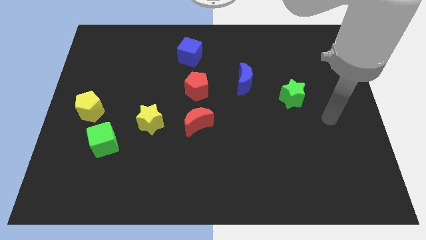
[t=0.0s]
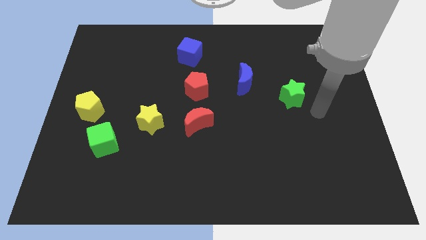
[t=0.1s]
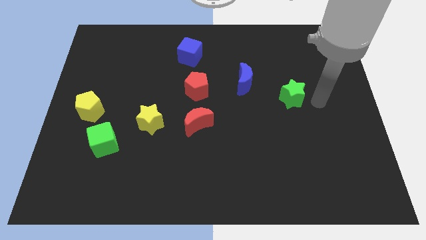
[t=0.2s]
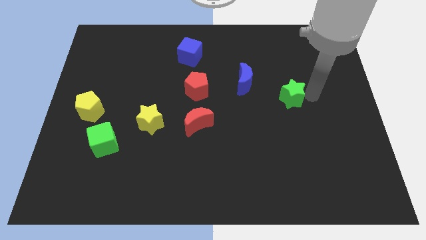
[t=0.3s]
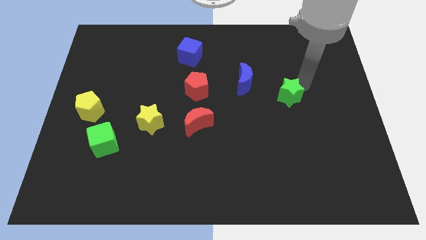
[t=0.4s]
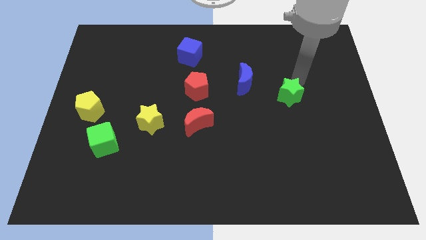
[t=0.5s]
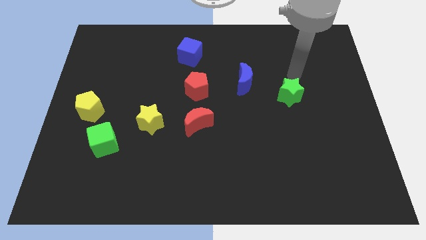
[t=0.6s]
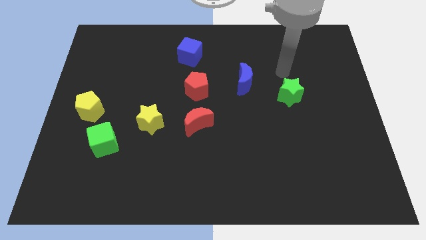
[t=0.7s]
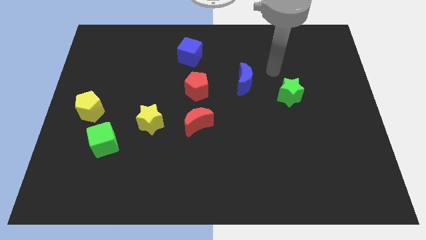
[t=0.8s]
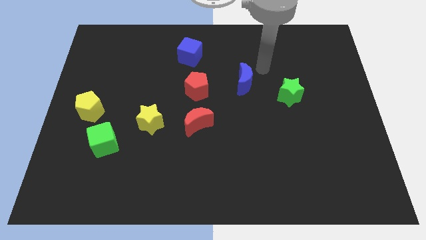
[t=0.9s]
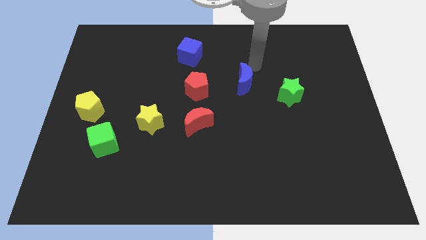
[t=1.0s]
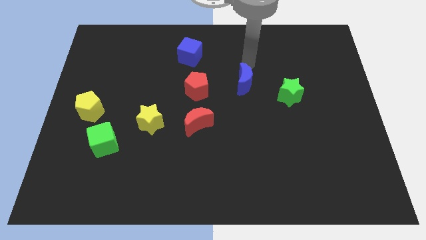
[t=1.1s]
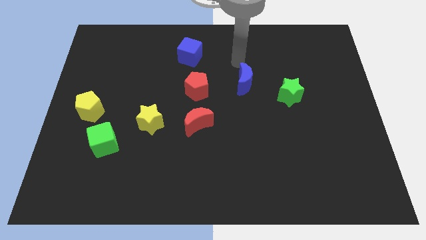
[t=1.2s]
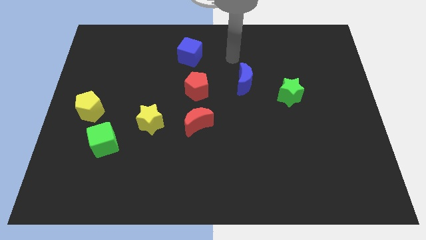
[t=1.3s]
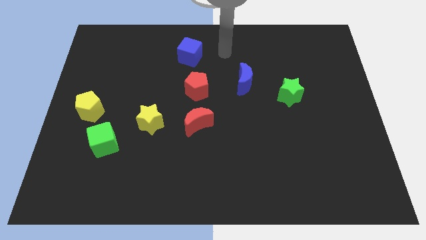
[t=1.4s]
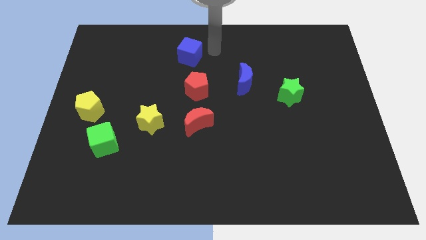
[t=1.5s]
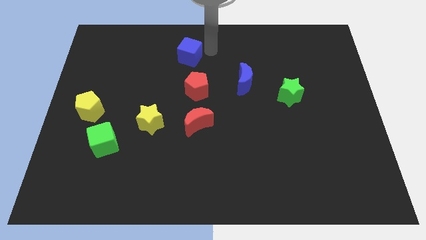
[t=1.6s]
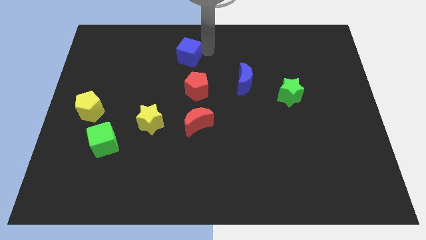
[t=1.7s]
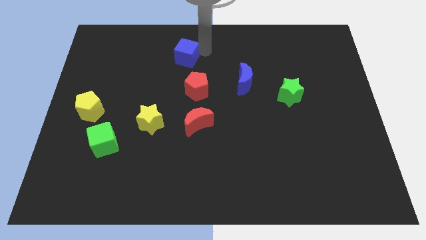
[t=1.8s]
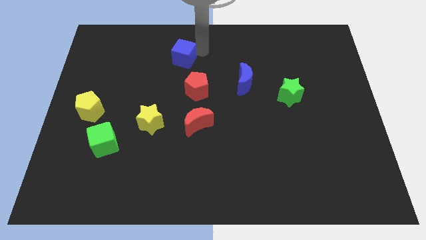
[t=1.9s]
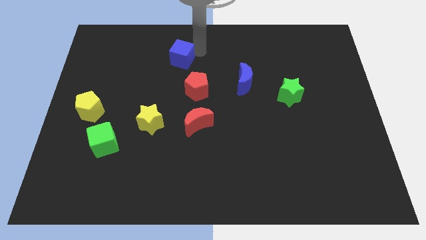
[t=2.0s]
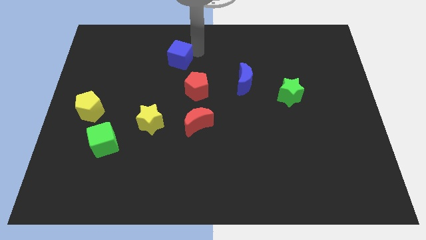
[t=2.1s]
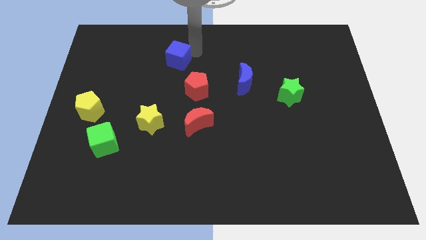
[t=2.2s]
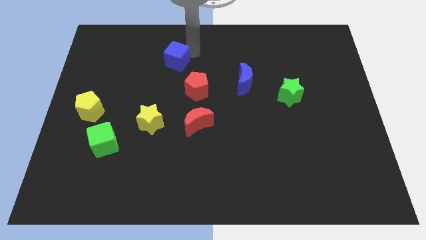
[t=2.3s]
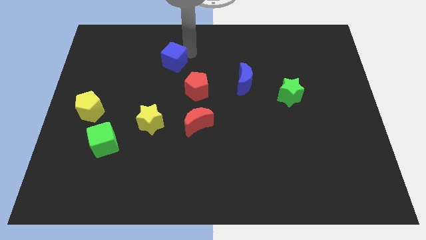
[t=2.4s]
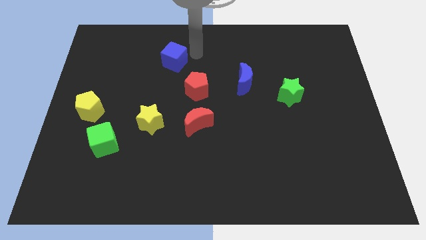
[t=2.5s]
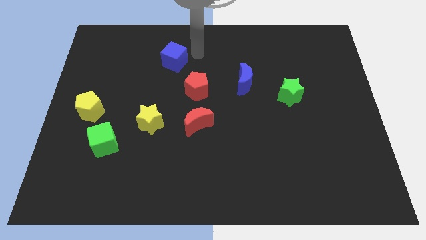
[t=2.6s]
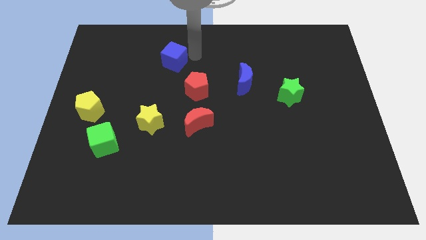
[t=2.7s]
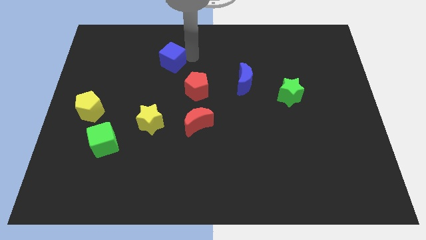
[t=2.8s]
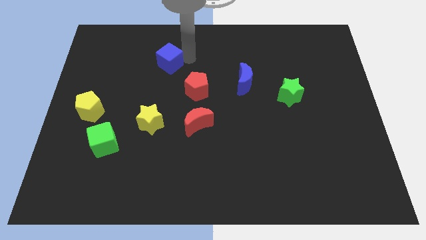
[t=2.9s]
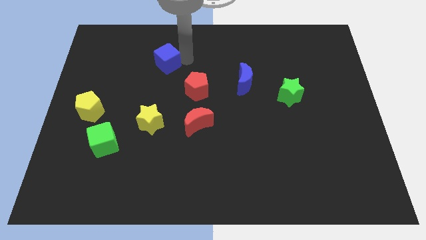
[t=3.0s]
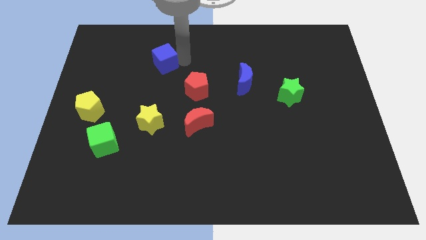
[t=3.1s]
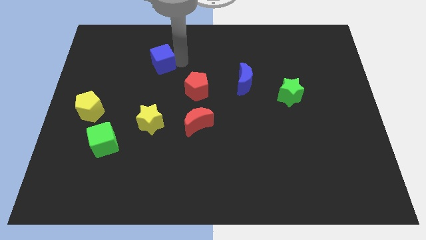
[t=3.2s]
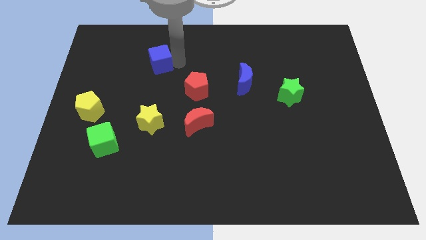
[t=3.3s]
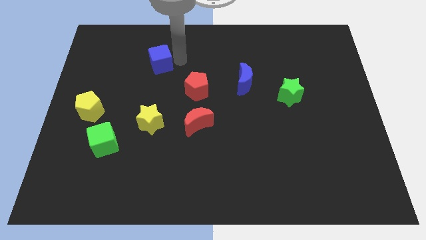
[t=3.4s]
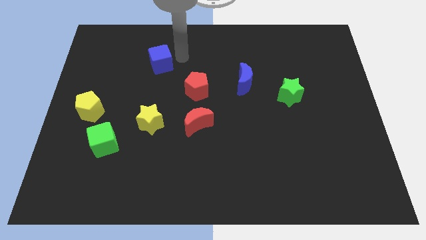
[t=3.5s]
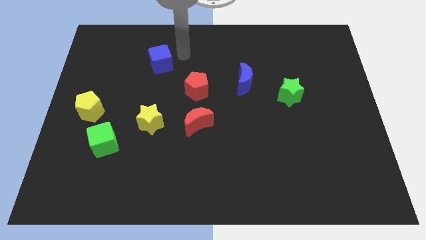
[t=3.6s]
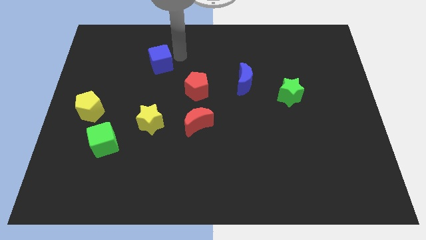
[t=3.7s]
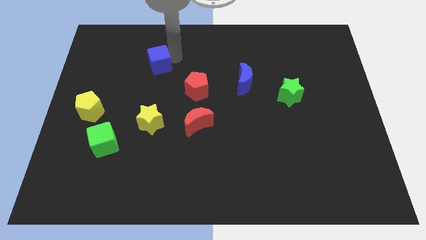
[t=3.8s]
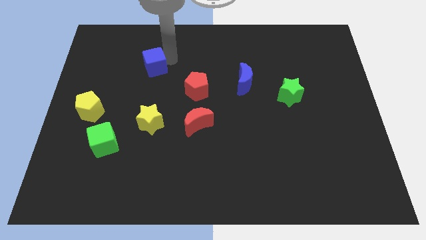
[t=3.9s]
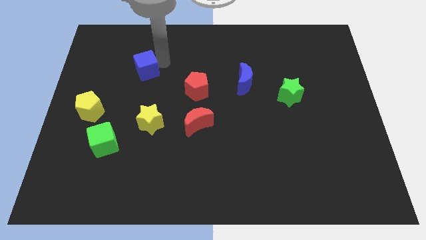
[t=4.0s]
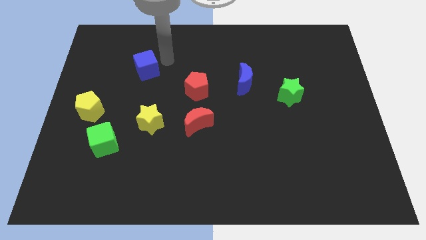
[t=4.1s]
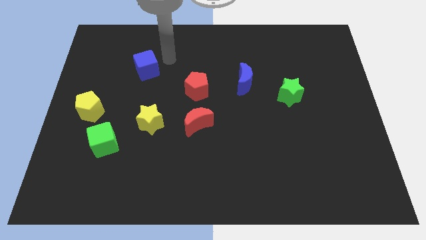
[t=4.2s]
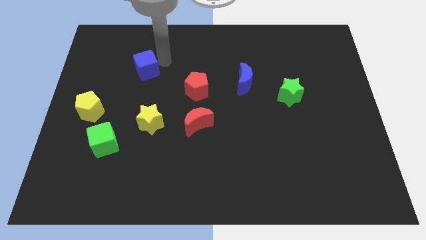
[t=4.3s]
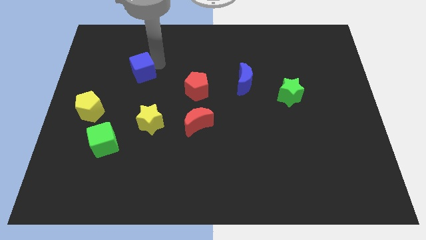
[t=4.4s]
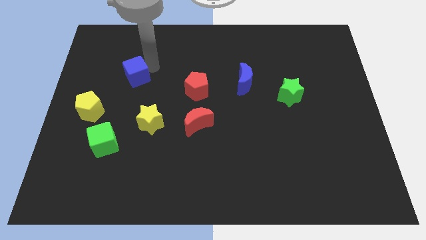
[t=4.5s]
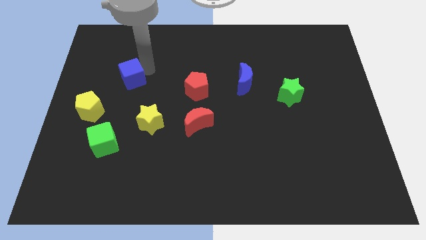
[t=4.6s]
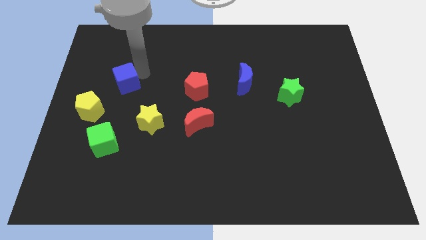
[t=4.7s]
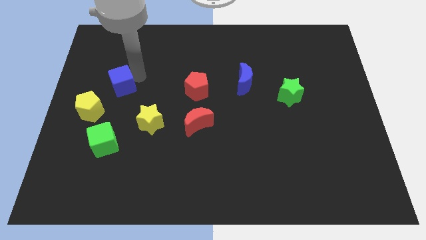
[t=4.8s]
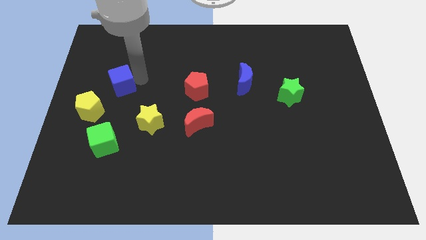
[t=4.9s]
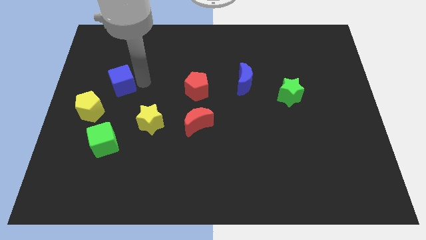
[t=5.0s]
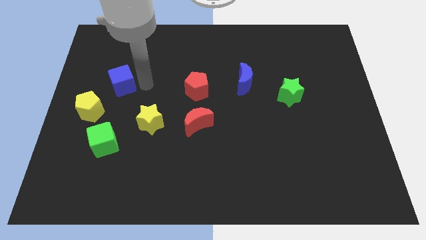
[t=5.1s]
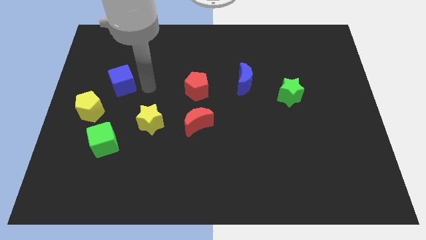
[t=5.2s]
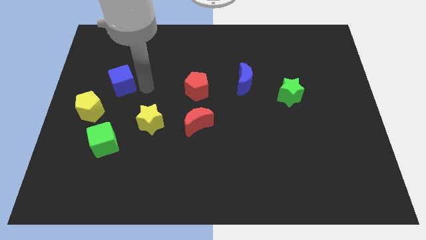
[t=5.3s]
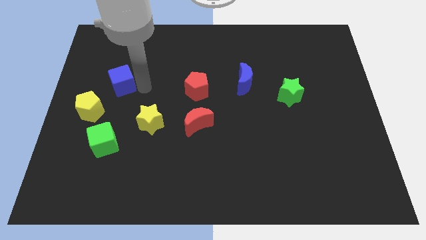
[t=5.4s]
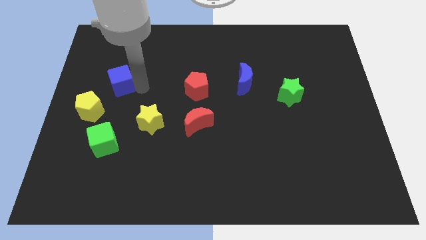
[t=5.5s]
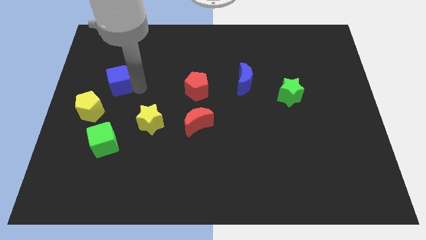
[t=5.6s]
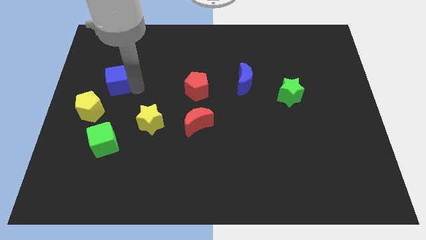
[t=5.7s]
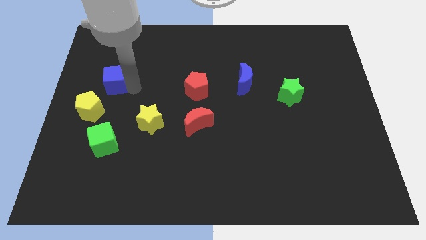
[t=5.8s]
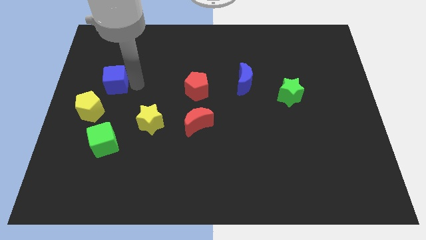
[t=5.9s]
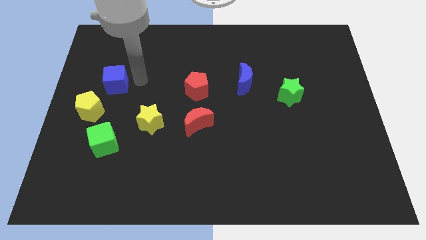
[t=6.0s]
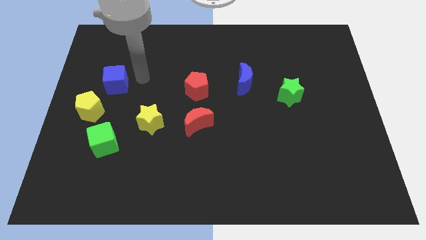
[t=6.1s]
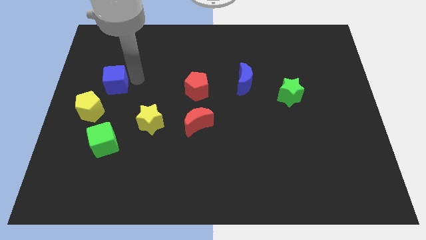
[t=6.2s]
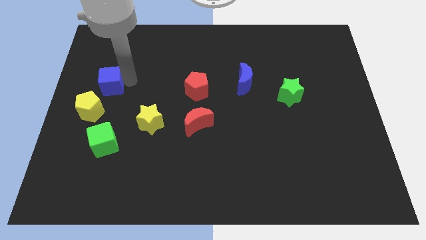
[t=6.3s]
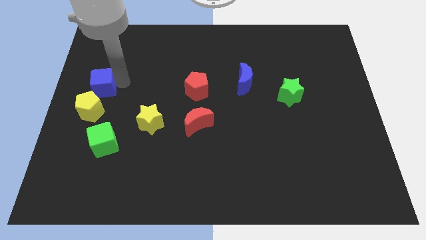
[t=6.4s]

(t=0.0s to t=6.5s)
move the blue cube to the left side of the board
